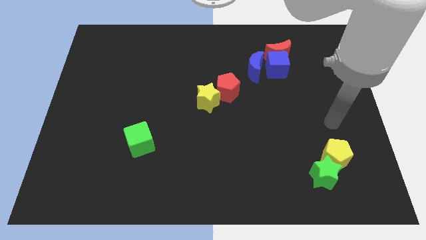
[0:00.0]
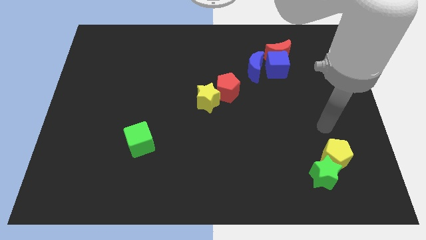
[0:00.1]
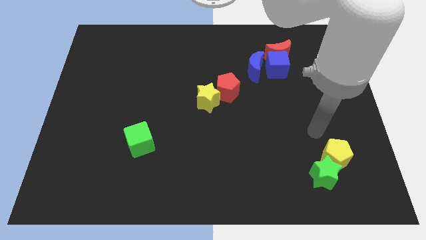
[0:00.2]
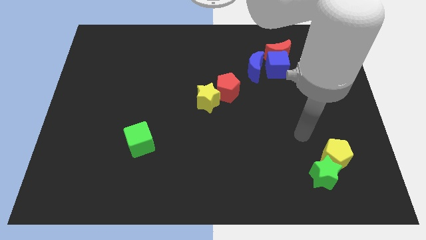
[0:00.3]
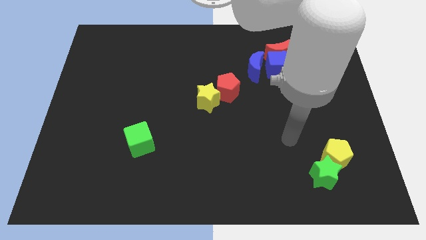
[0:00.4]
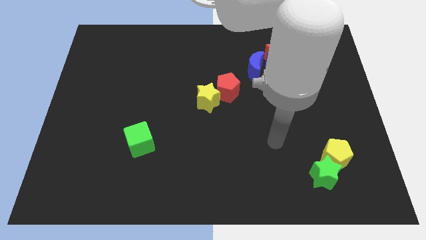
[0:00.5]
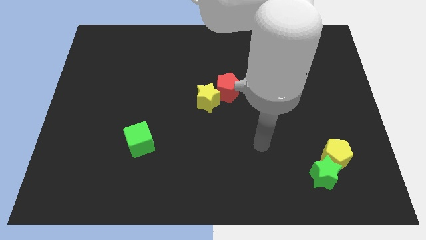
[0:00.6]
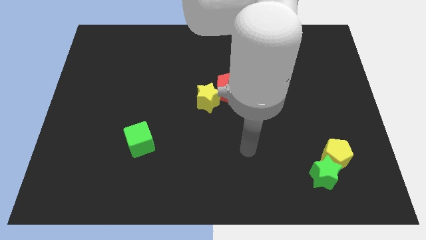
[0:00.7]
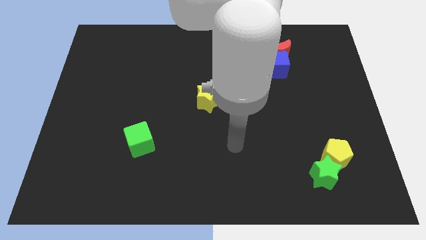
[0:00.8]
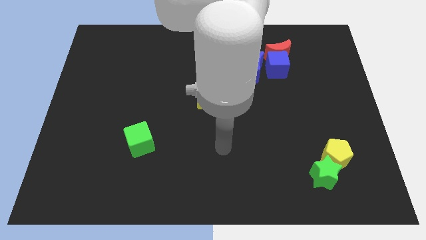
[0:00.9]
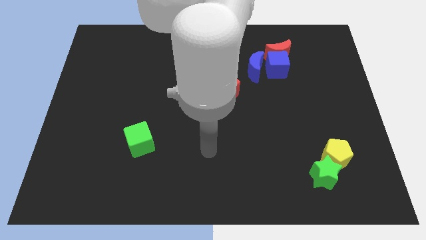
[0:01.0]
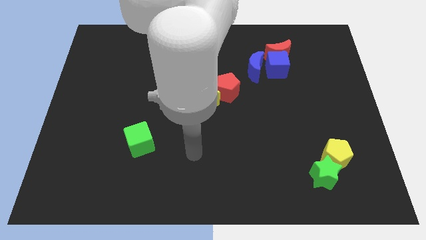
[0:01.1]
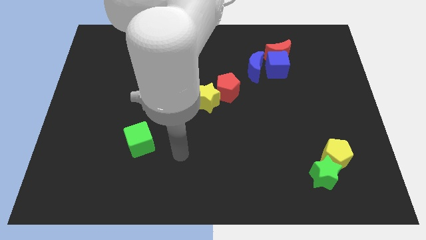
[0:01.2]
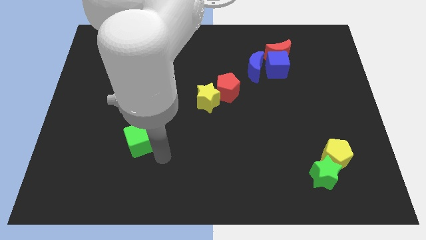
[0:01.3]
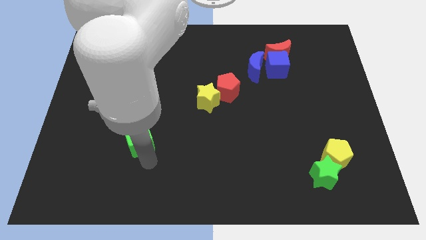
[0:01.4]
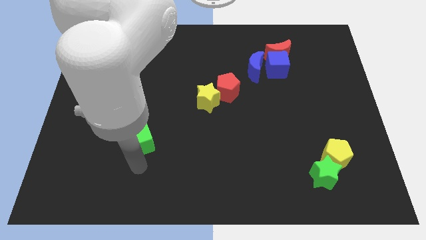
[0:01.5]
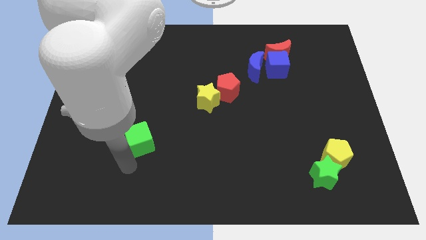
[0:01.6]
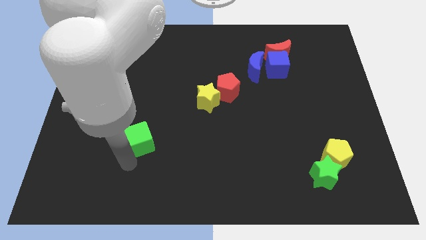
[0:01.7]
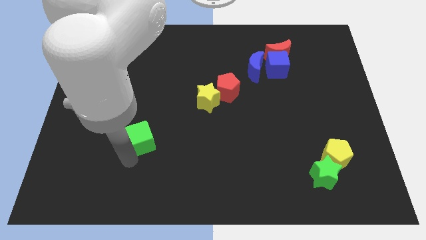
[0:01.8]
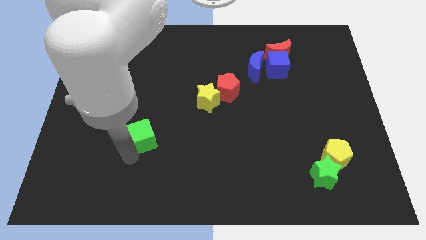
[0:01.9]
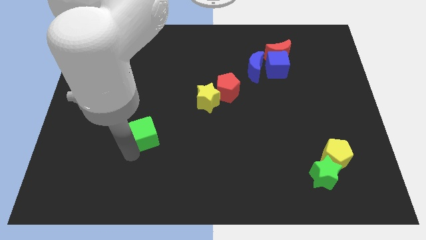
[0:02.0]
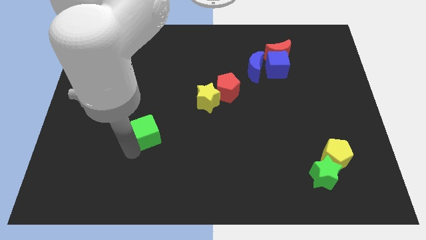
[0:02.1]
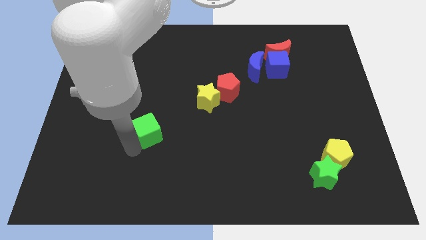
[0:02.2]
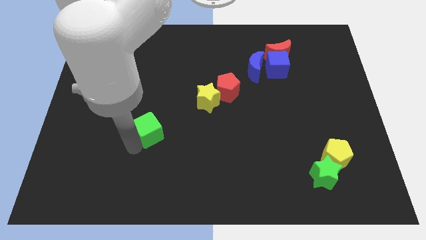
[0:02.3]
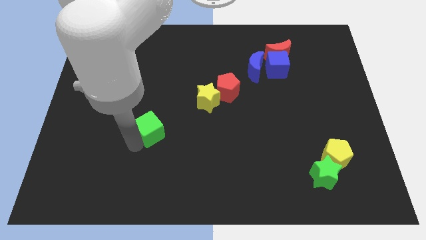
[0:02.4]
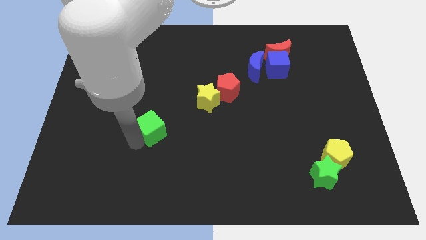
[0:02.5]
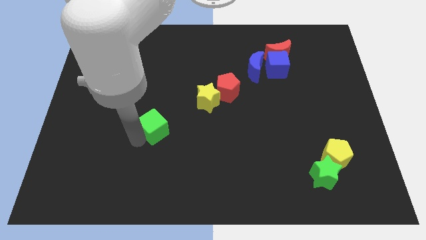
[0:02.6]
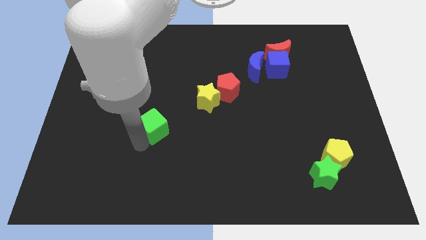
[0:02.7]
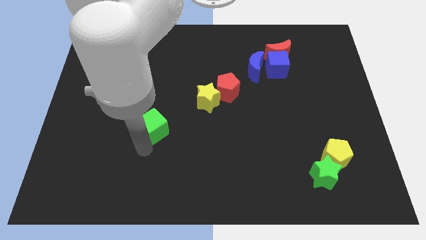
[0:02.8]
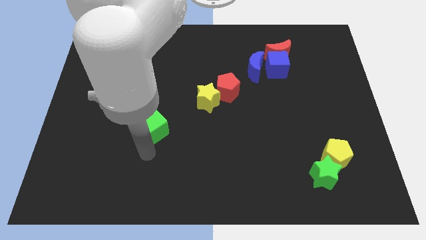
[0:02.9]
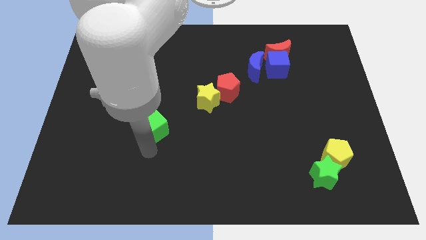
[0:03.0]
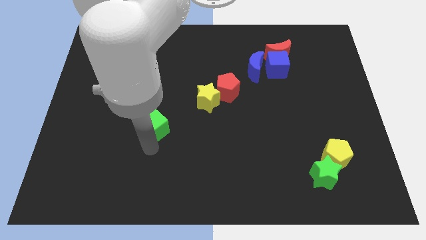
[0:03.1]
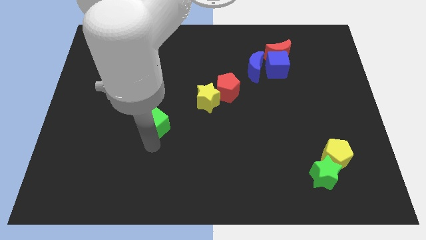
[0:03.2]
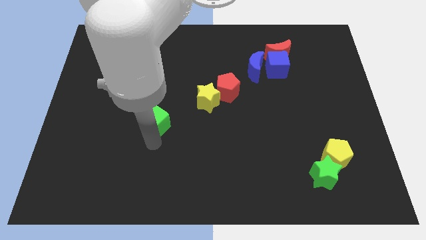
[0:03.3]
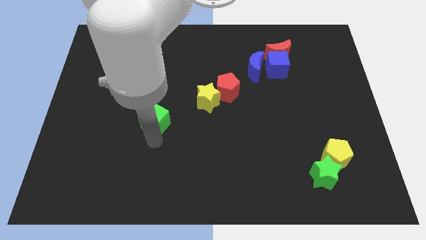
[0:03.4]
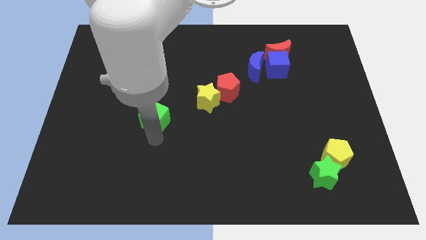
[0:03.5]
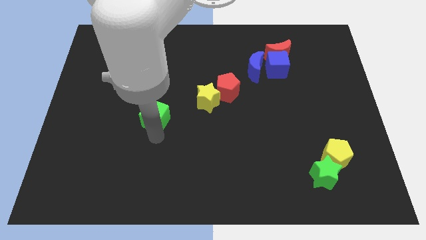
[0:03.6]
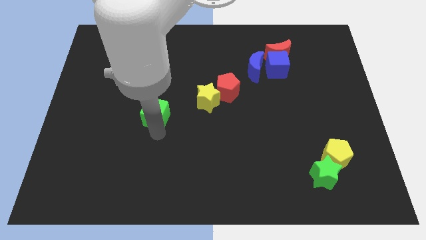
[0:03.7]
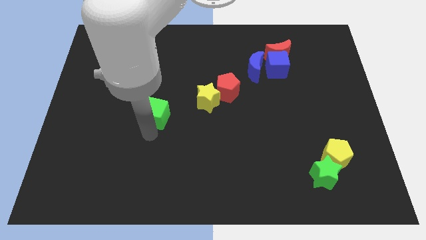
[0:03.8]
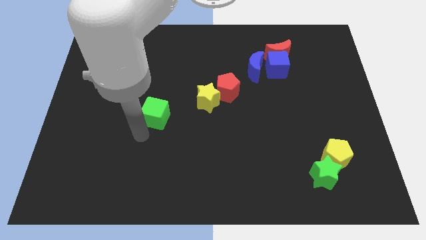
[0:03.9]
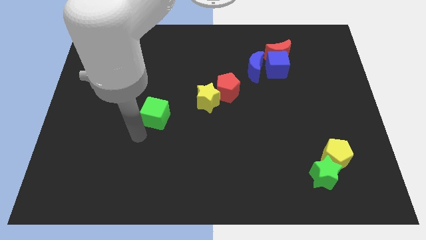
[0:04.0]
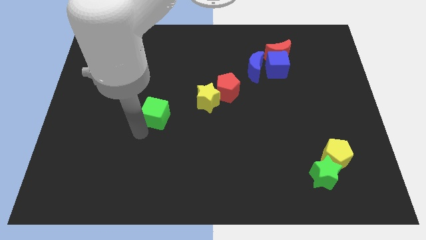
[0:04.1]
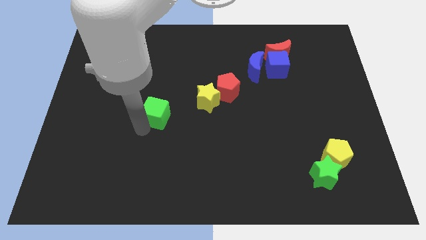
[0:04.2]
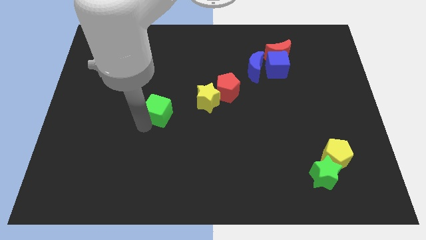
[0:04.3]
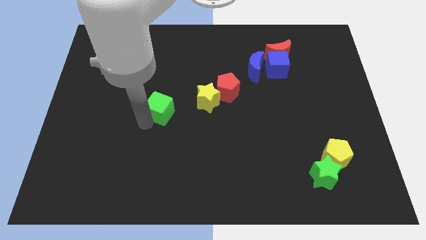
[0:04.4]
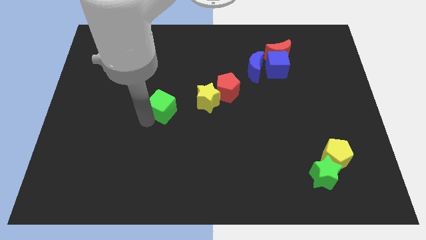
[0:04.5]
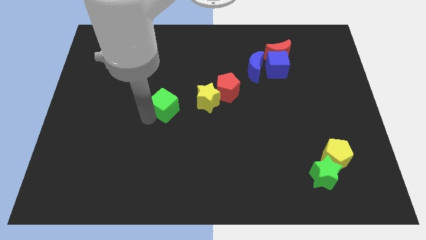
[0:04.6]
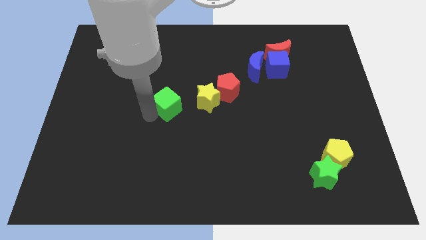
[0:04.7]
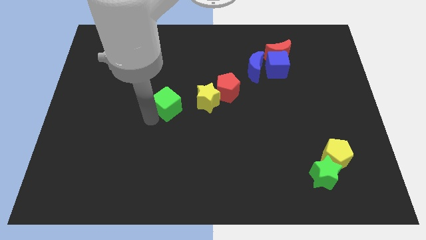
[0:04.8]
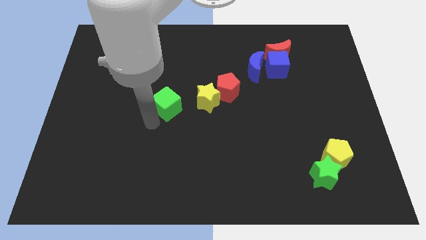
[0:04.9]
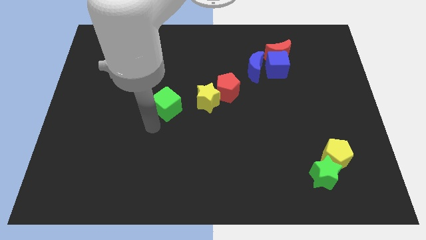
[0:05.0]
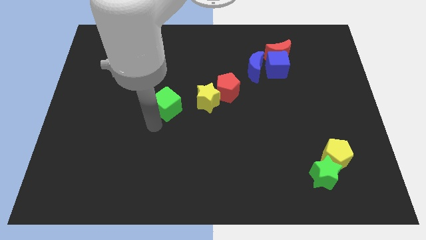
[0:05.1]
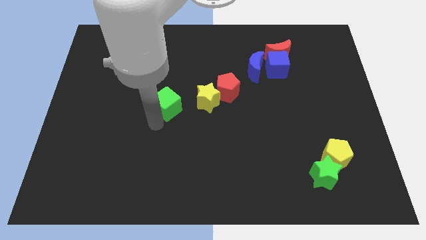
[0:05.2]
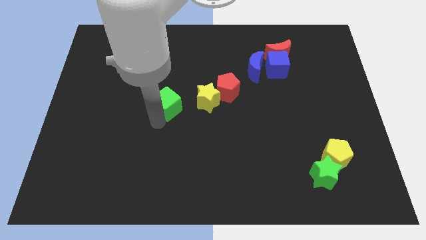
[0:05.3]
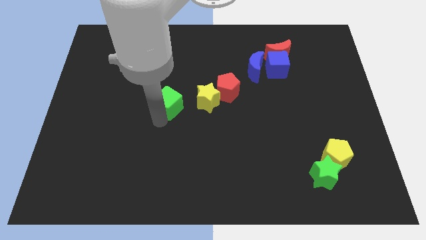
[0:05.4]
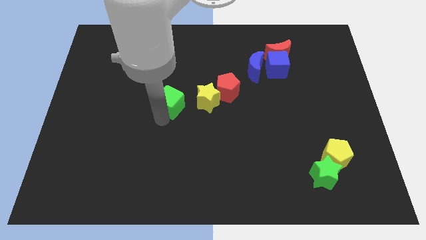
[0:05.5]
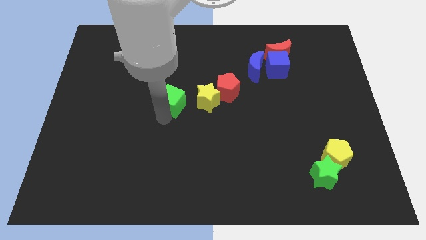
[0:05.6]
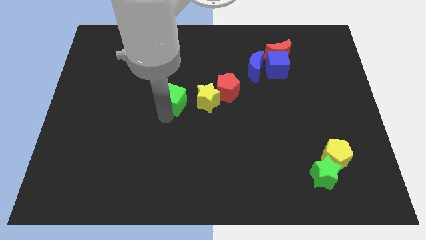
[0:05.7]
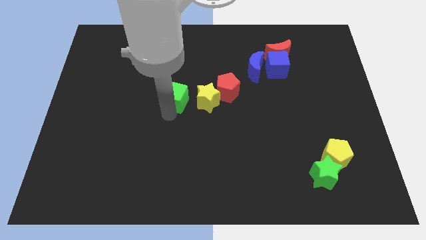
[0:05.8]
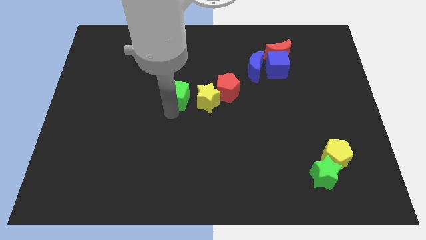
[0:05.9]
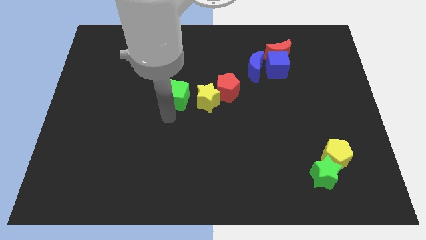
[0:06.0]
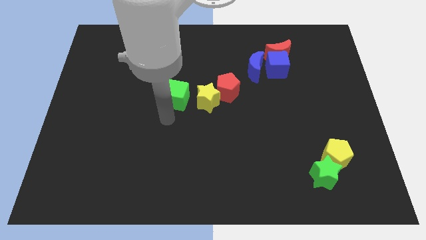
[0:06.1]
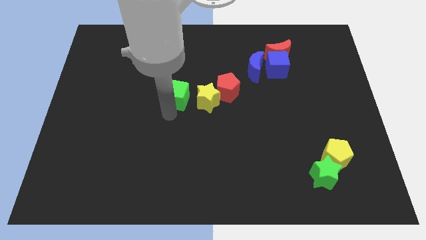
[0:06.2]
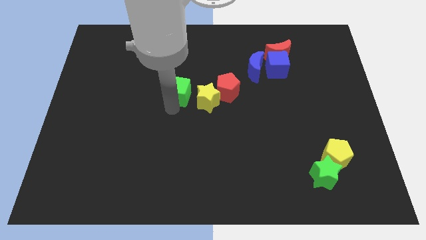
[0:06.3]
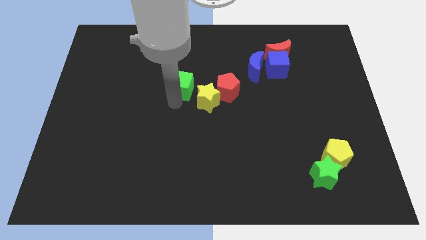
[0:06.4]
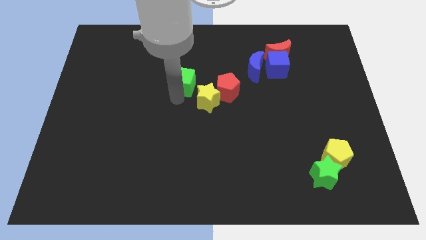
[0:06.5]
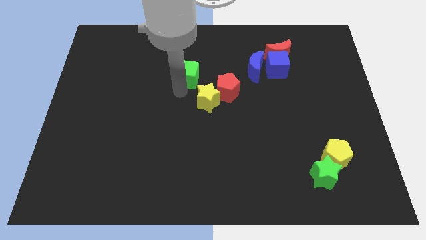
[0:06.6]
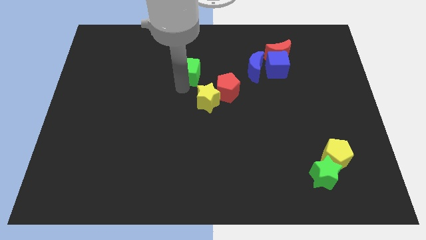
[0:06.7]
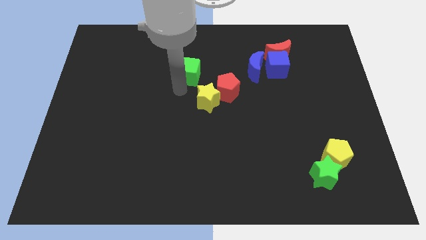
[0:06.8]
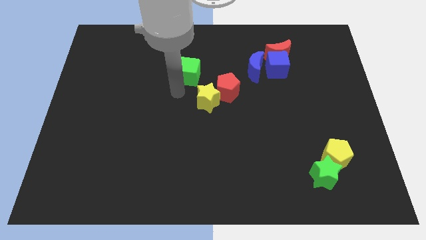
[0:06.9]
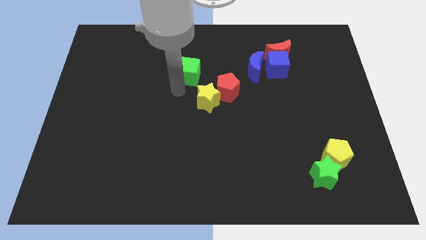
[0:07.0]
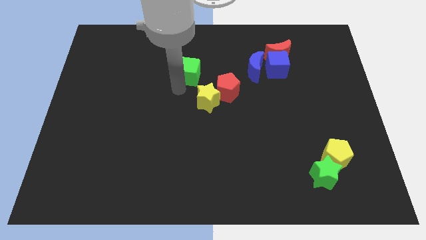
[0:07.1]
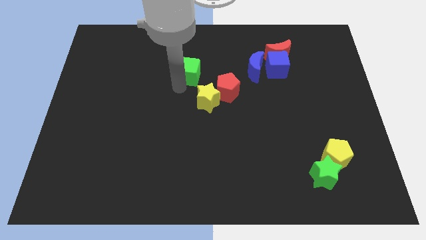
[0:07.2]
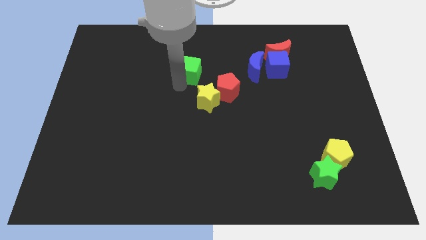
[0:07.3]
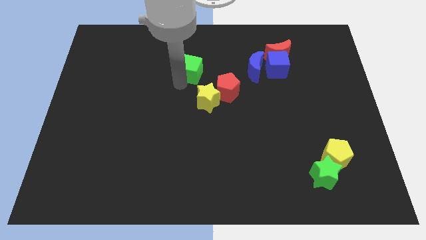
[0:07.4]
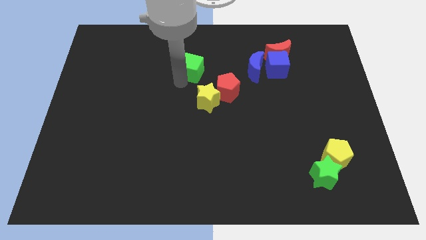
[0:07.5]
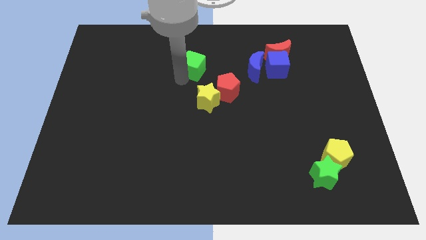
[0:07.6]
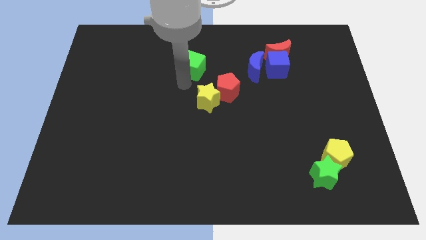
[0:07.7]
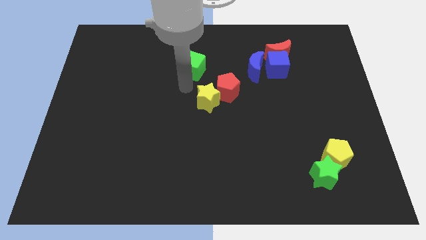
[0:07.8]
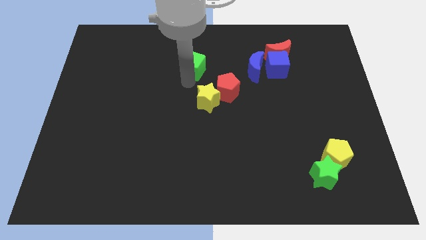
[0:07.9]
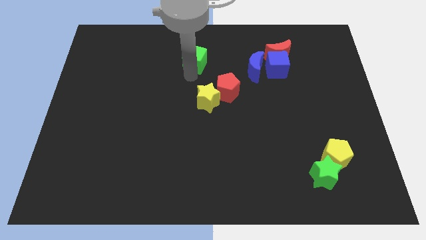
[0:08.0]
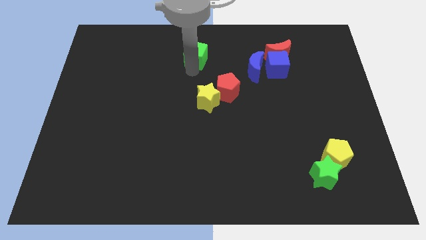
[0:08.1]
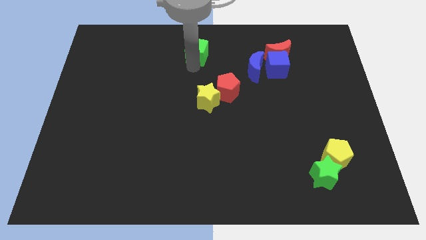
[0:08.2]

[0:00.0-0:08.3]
push the green cube to the top side
